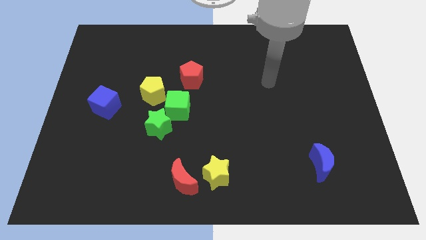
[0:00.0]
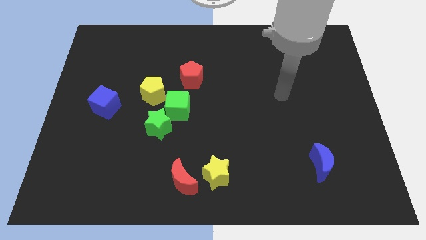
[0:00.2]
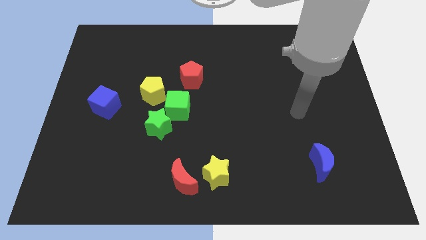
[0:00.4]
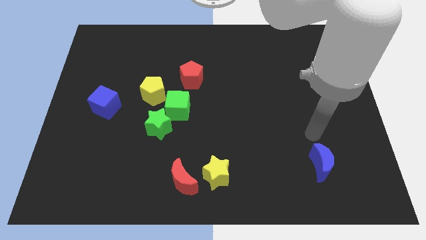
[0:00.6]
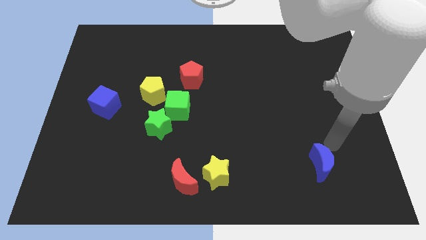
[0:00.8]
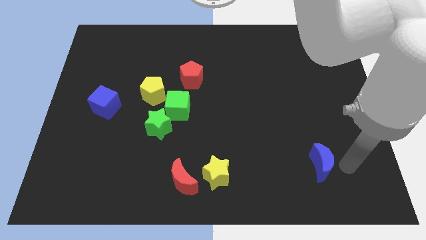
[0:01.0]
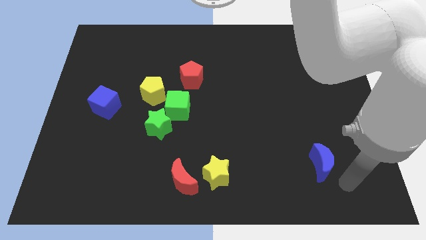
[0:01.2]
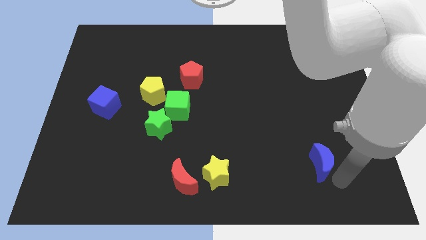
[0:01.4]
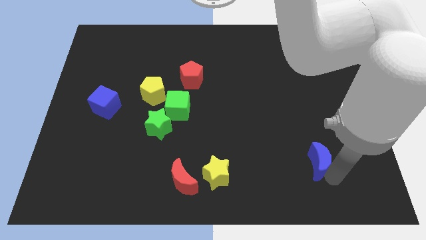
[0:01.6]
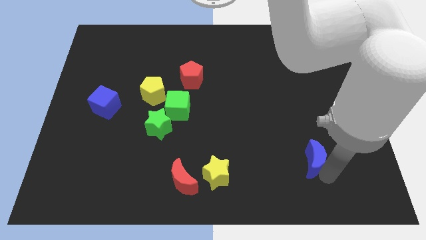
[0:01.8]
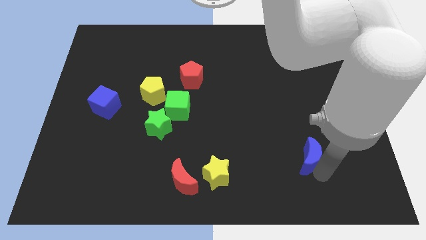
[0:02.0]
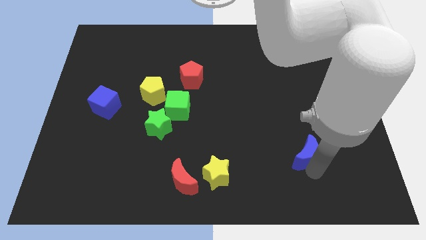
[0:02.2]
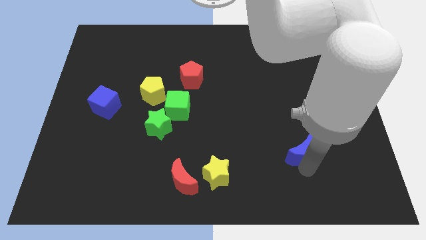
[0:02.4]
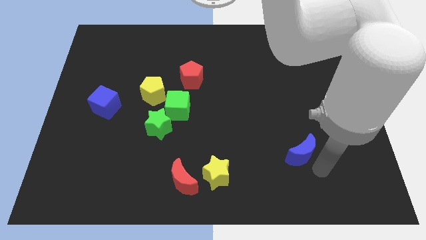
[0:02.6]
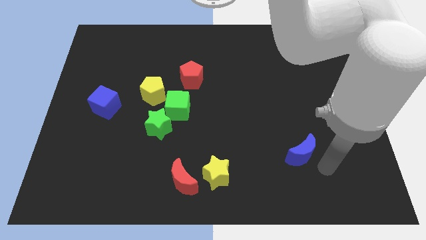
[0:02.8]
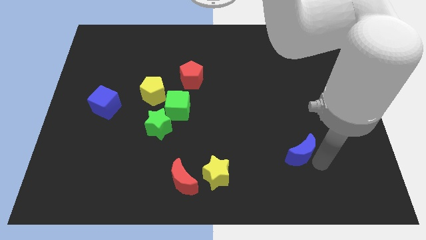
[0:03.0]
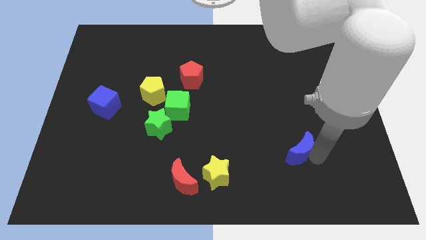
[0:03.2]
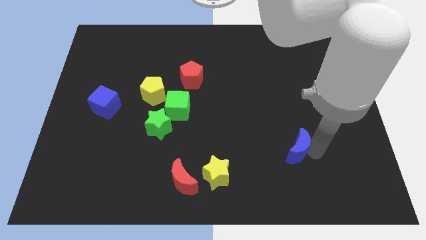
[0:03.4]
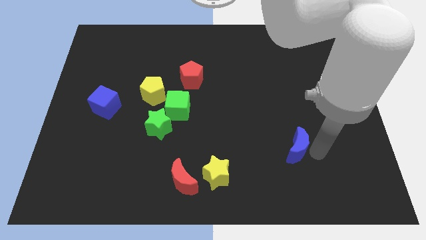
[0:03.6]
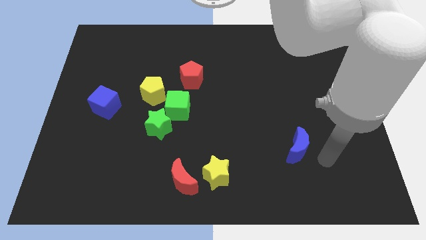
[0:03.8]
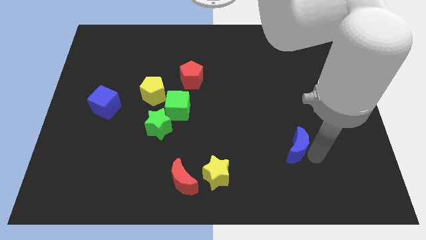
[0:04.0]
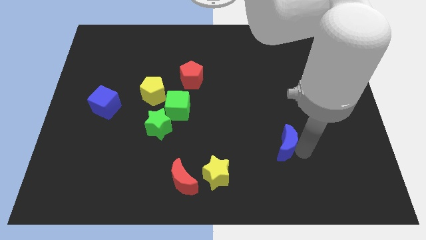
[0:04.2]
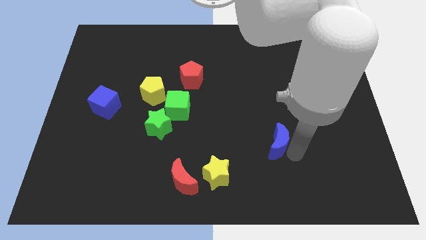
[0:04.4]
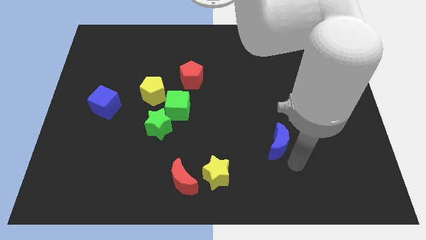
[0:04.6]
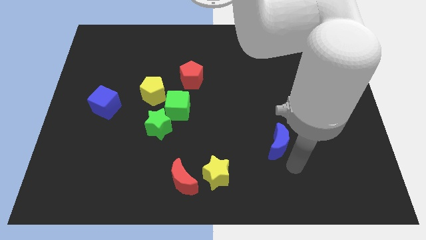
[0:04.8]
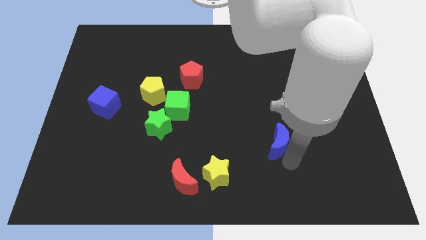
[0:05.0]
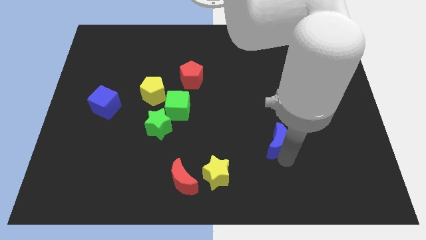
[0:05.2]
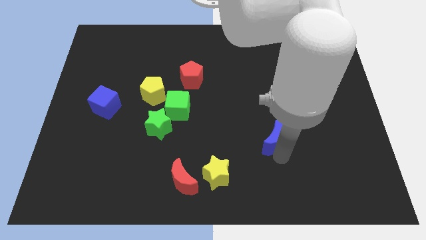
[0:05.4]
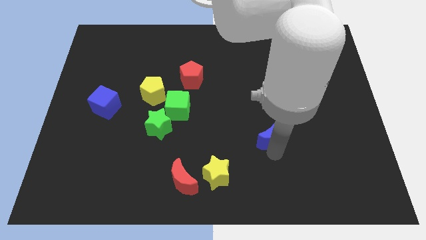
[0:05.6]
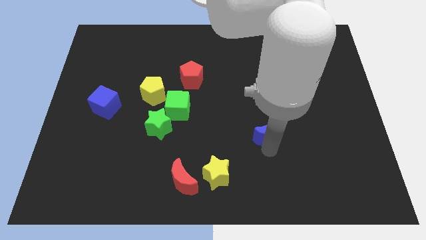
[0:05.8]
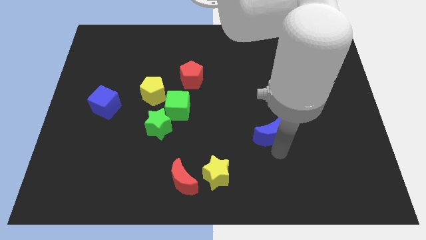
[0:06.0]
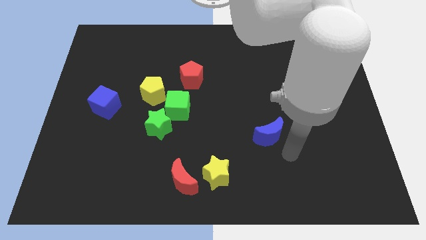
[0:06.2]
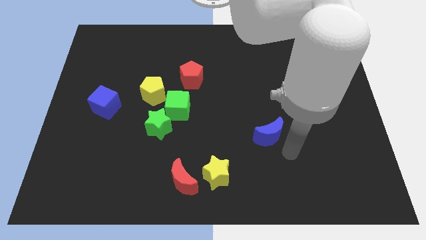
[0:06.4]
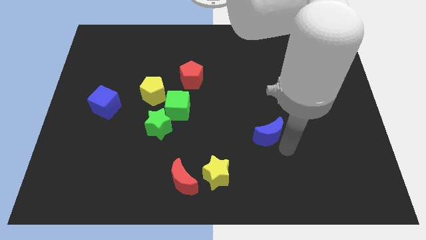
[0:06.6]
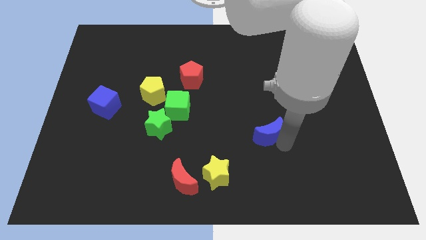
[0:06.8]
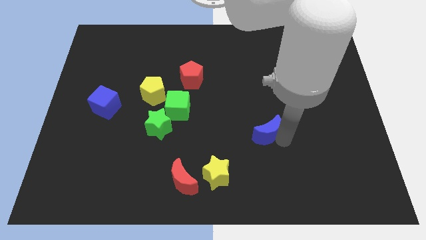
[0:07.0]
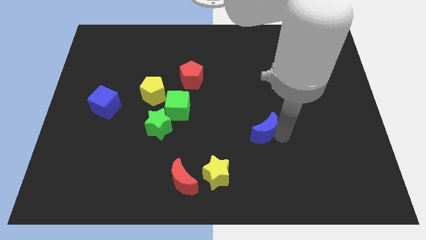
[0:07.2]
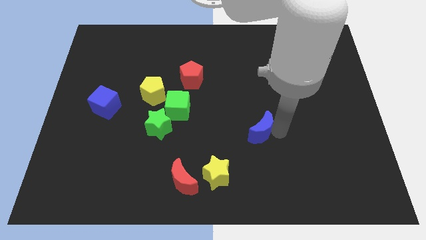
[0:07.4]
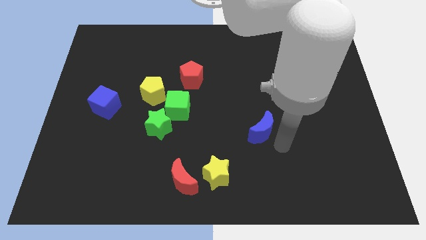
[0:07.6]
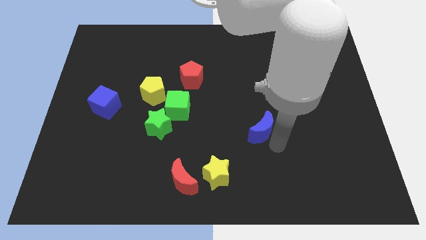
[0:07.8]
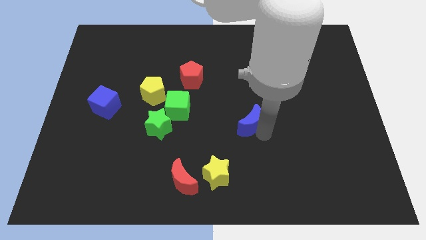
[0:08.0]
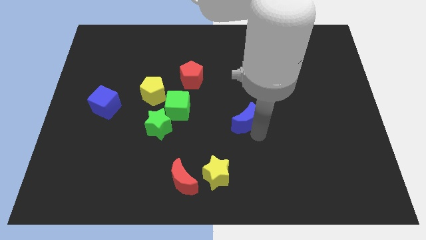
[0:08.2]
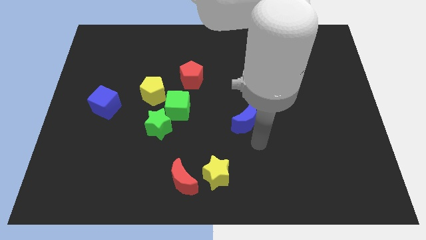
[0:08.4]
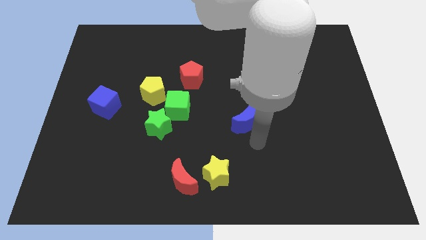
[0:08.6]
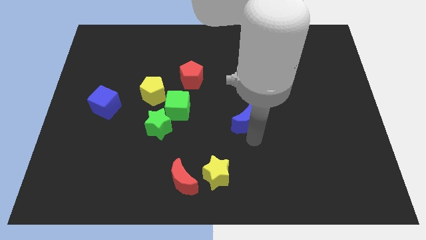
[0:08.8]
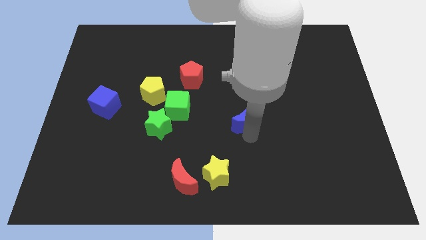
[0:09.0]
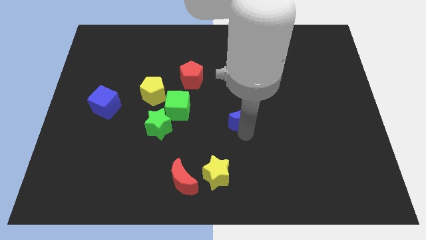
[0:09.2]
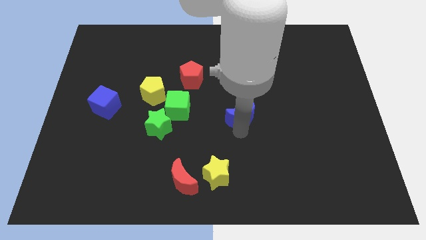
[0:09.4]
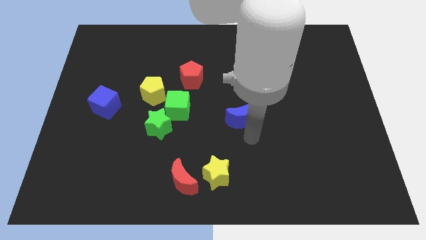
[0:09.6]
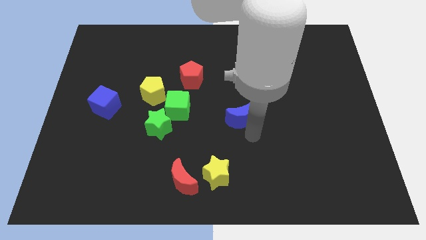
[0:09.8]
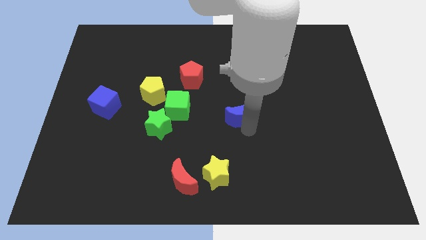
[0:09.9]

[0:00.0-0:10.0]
push the blue moon up and then left

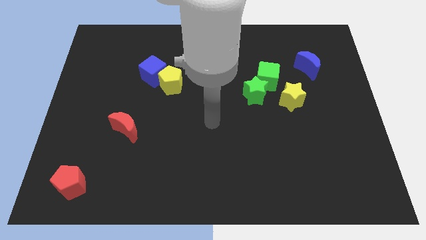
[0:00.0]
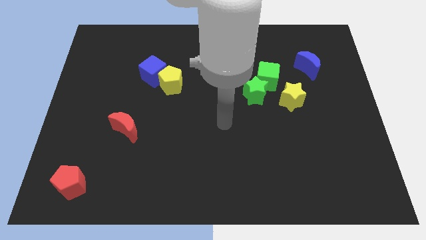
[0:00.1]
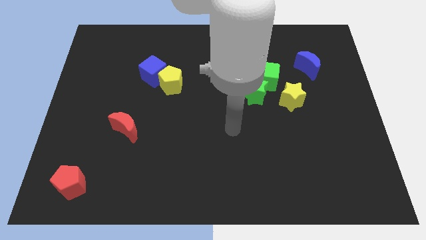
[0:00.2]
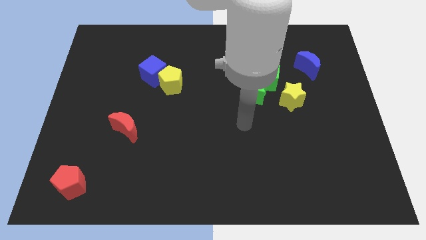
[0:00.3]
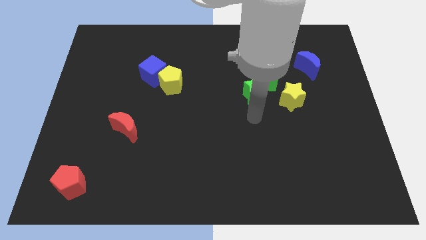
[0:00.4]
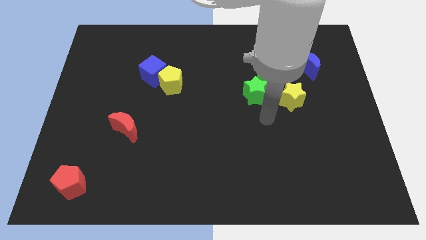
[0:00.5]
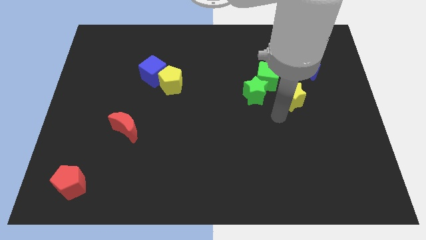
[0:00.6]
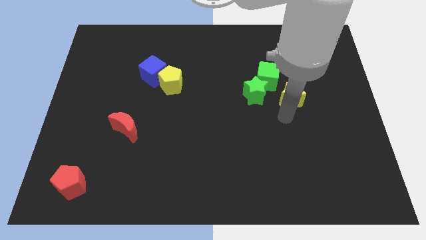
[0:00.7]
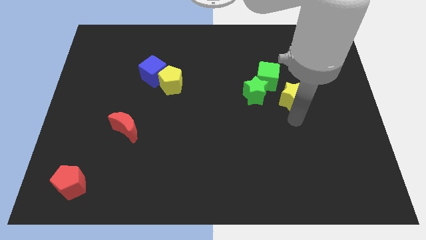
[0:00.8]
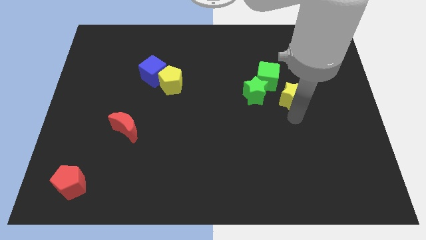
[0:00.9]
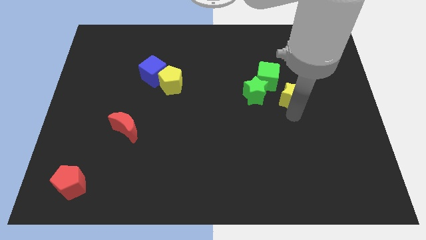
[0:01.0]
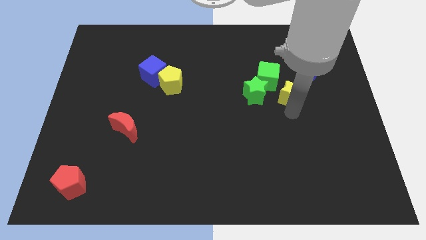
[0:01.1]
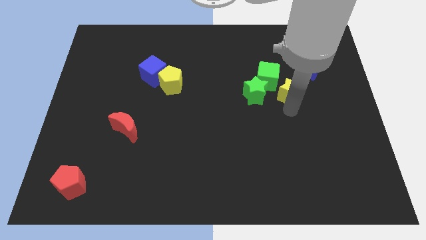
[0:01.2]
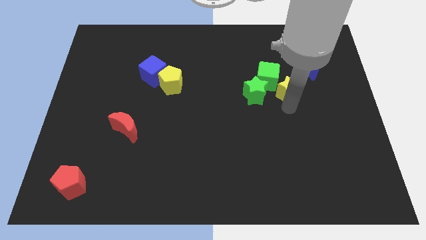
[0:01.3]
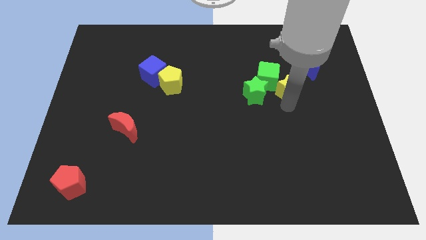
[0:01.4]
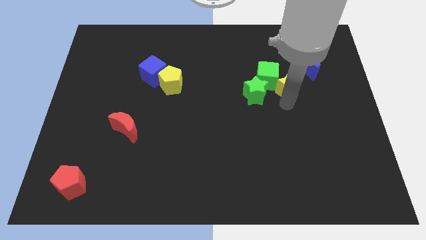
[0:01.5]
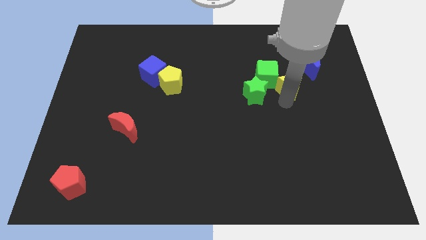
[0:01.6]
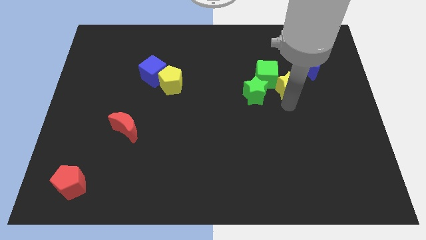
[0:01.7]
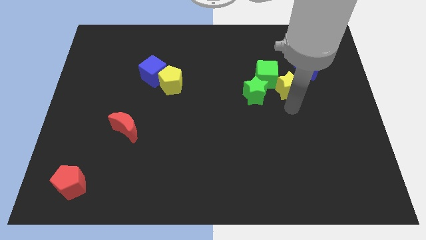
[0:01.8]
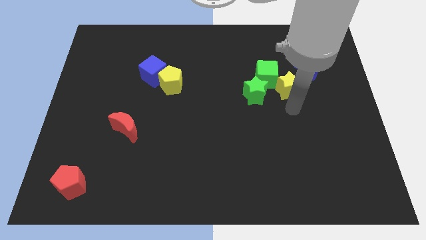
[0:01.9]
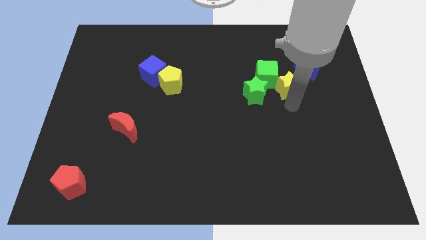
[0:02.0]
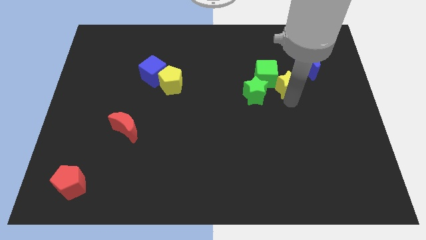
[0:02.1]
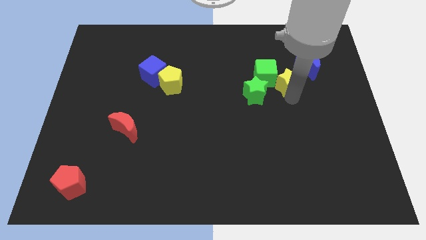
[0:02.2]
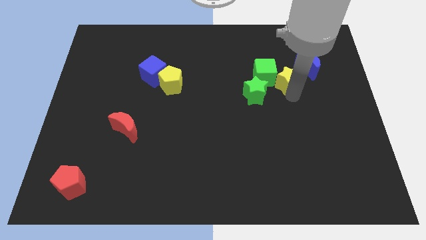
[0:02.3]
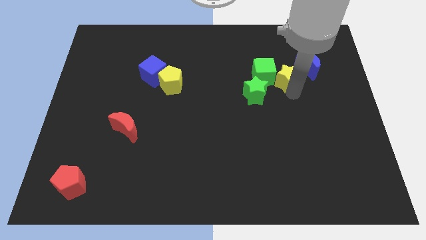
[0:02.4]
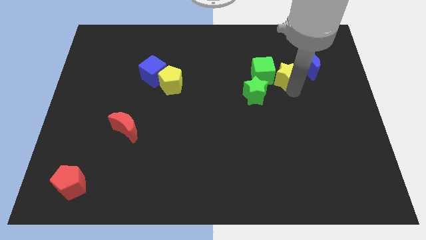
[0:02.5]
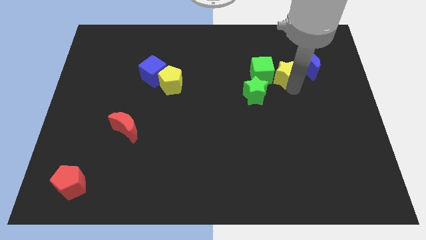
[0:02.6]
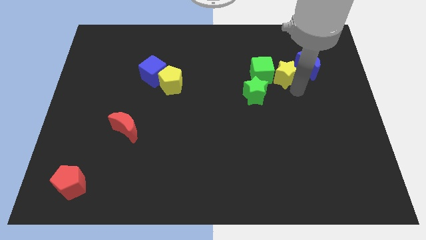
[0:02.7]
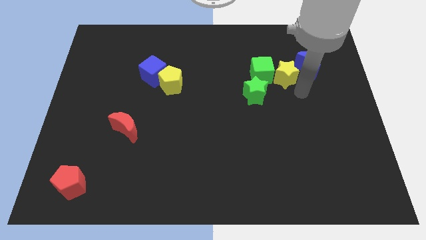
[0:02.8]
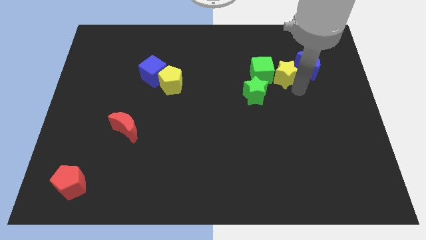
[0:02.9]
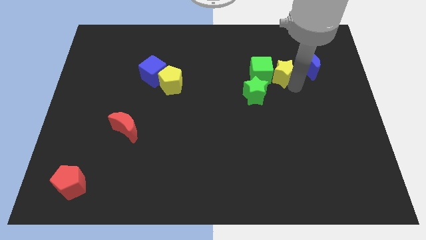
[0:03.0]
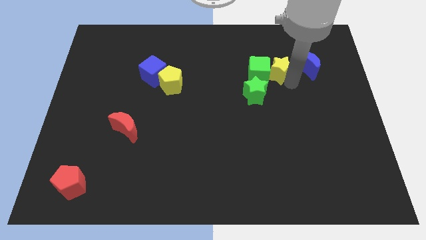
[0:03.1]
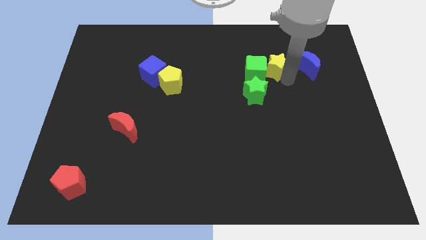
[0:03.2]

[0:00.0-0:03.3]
slightly move the yellow star diagonally upwards and left
